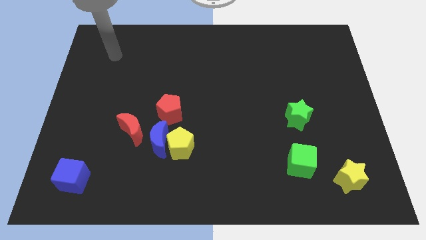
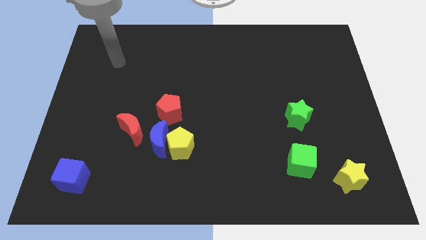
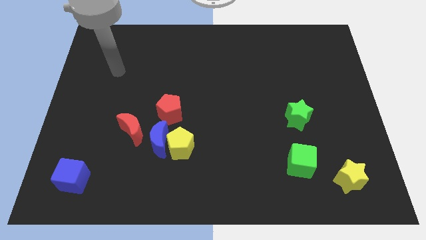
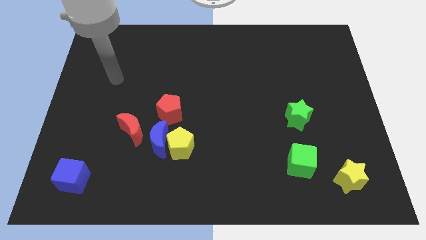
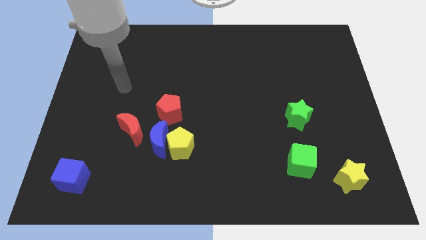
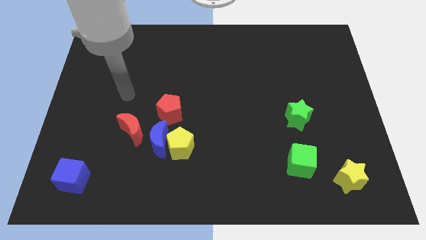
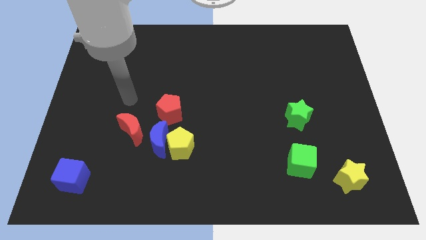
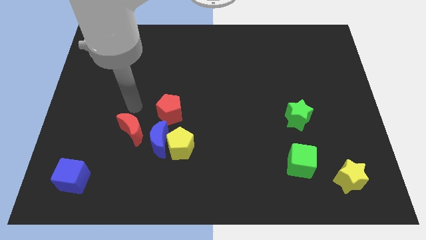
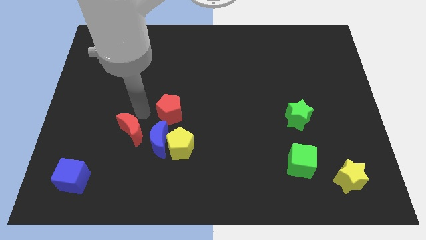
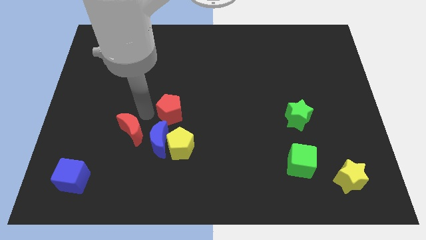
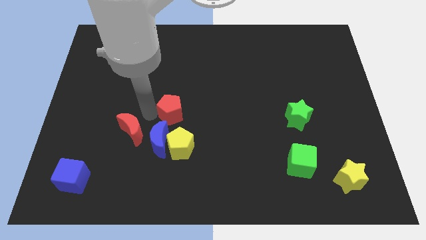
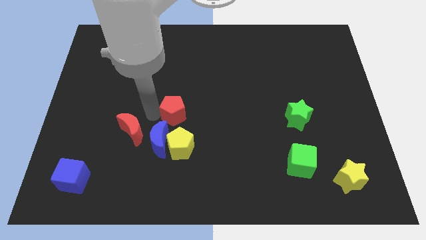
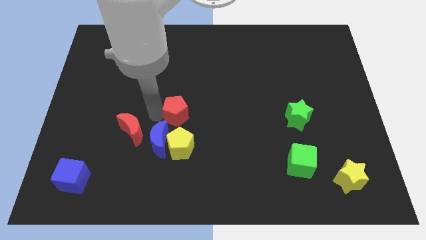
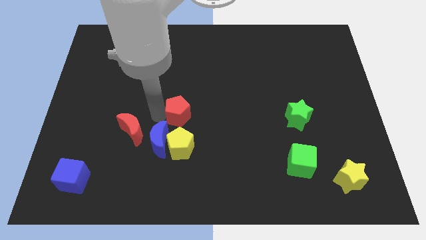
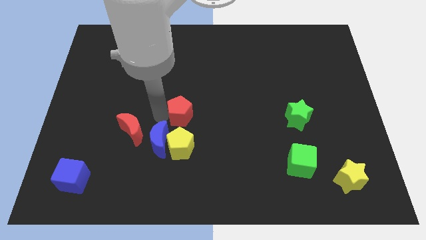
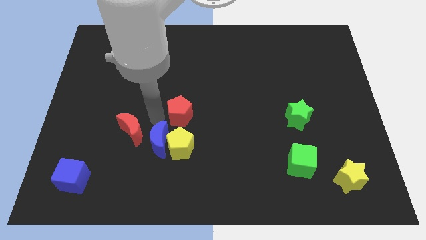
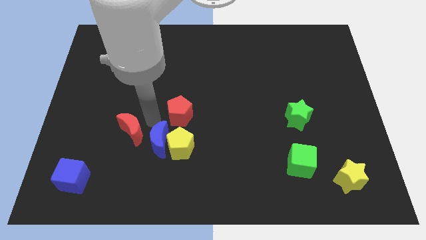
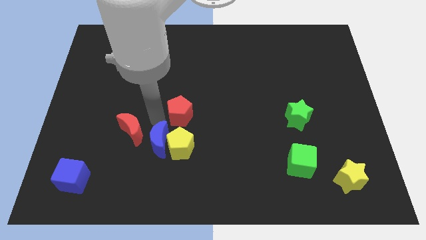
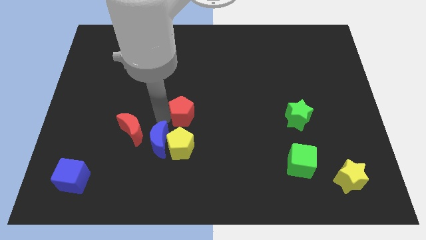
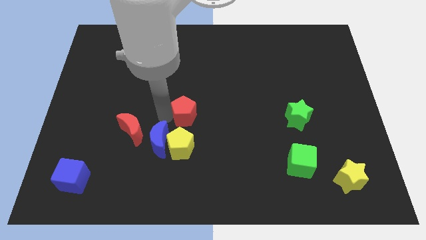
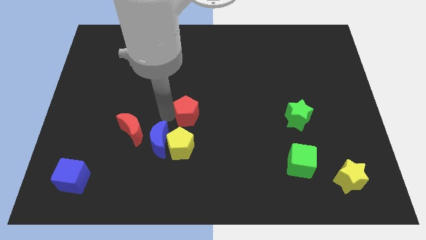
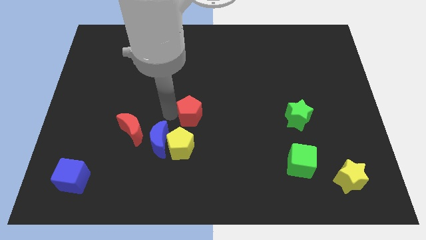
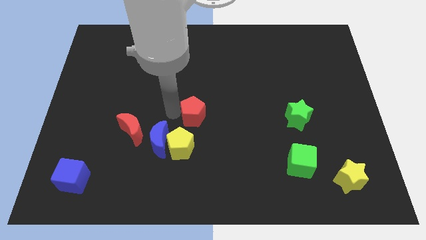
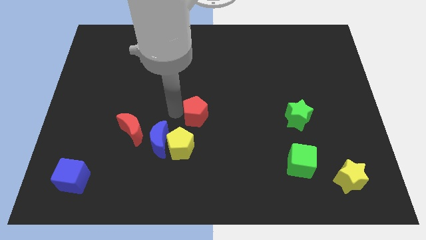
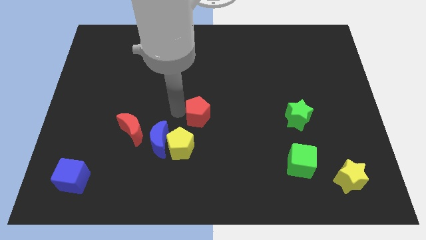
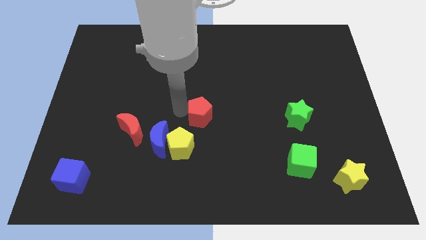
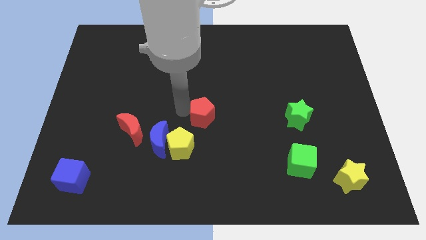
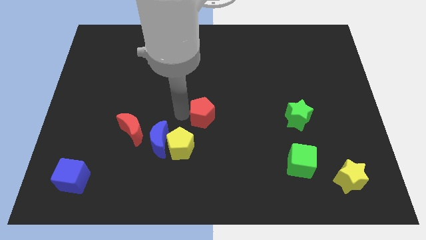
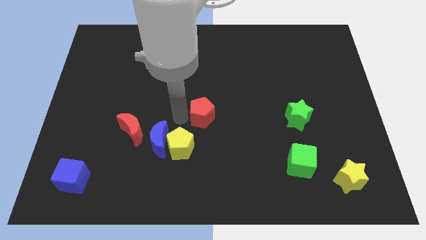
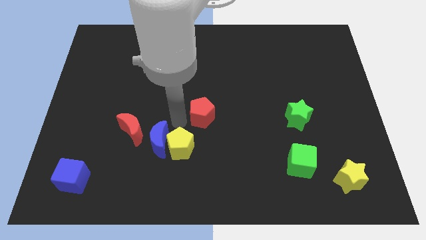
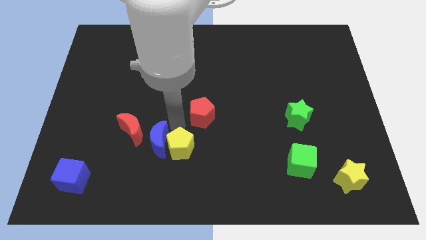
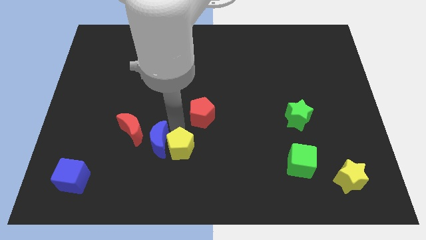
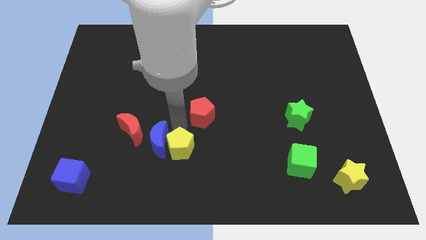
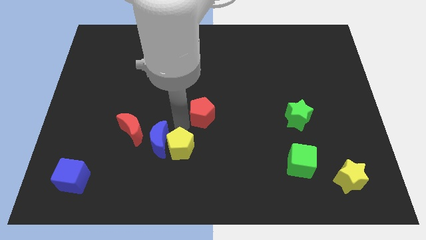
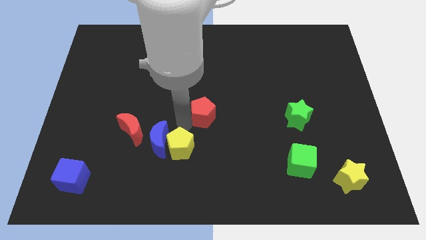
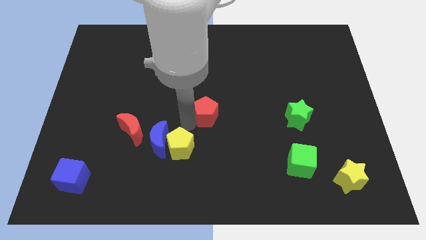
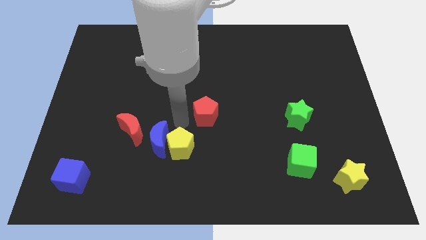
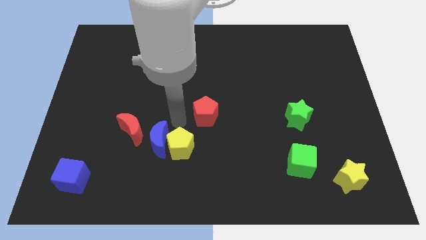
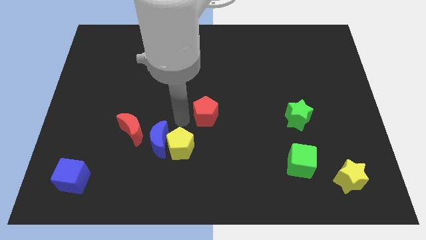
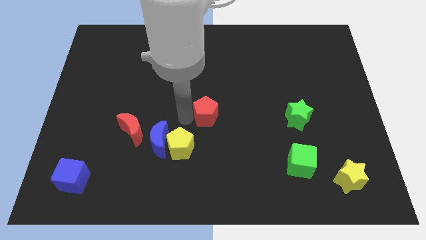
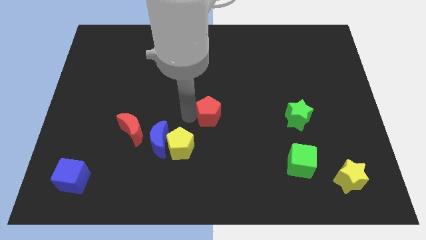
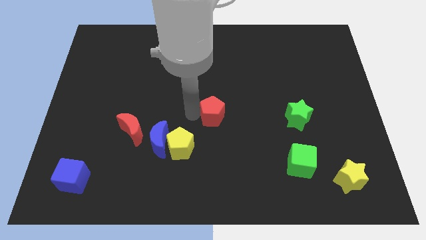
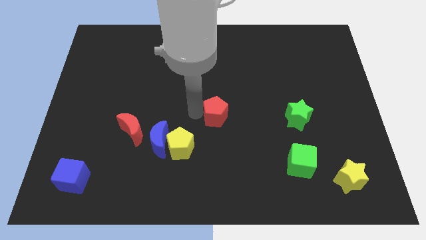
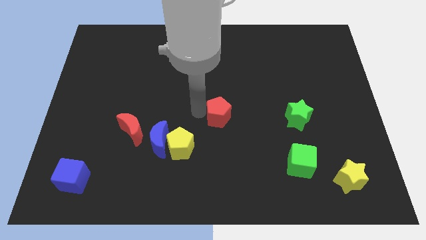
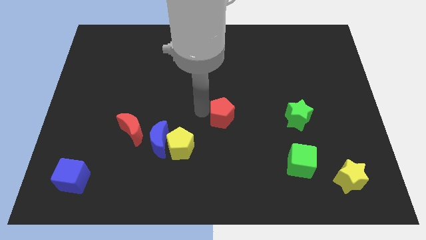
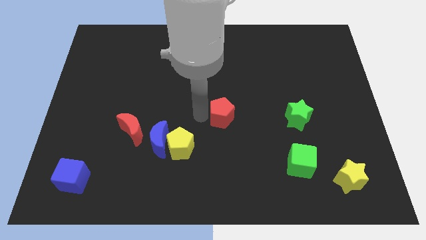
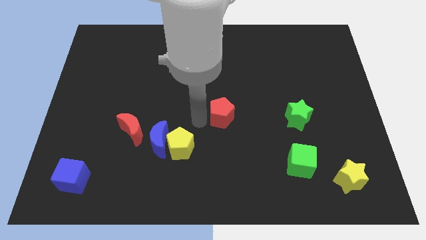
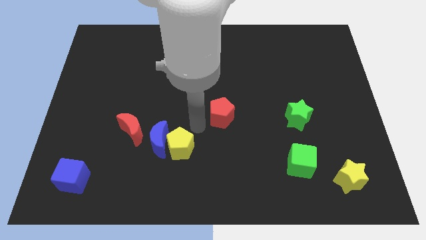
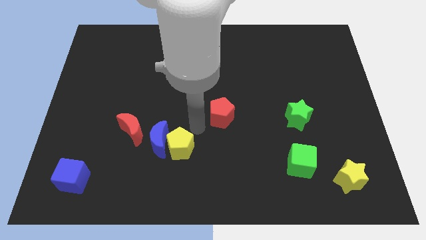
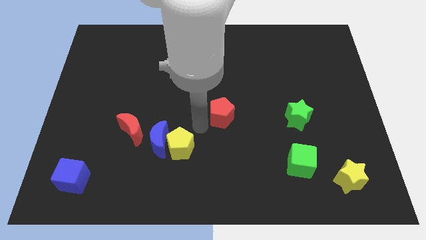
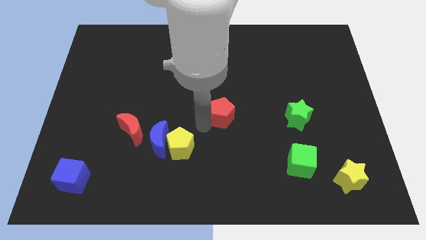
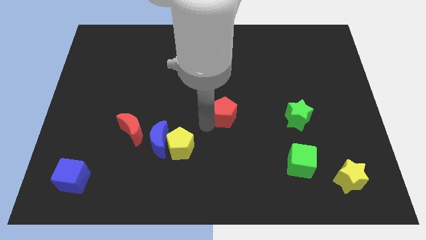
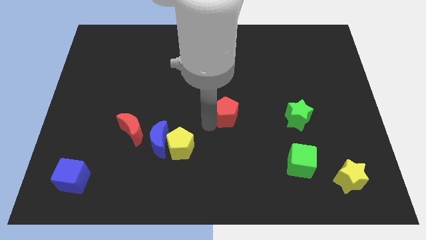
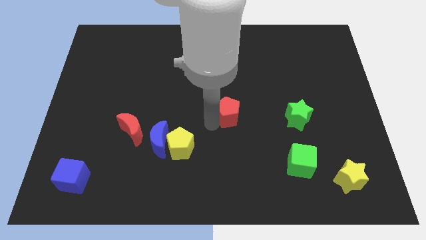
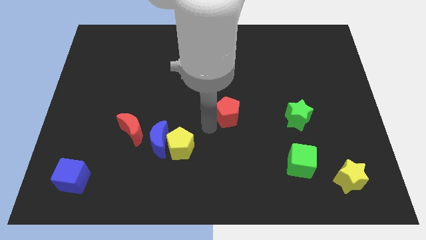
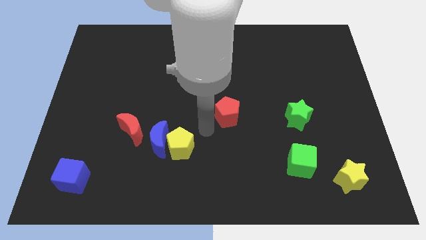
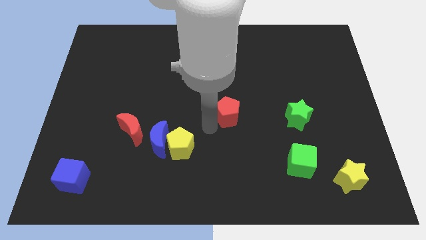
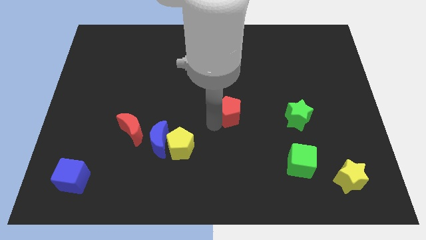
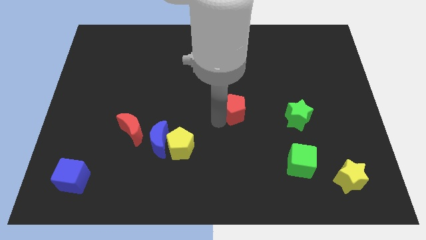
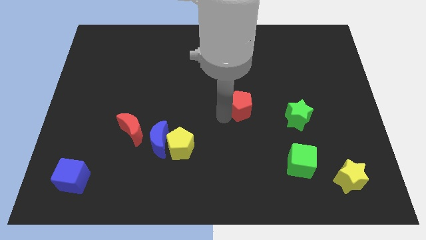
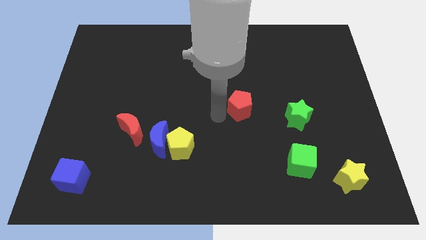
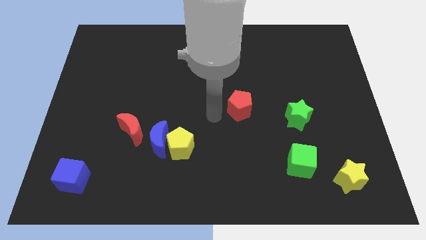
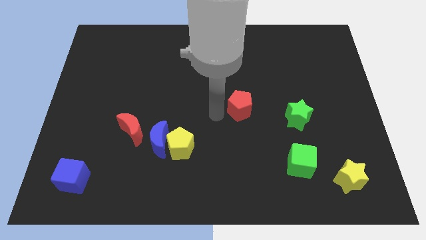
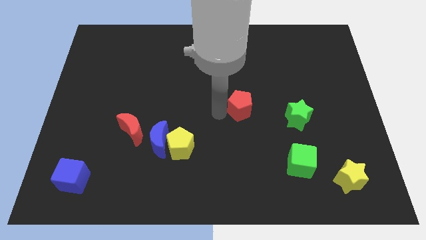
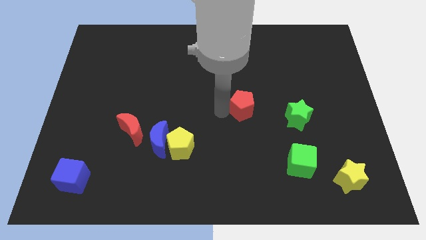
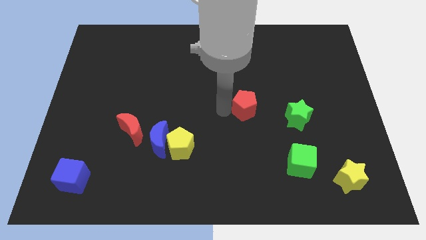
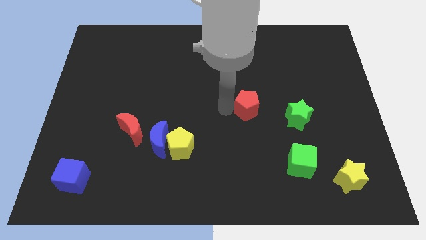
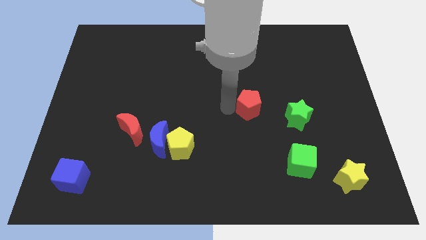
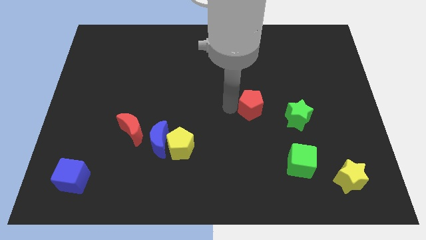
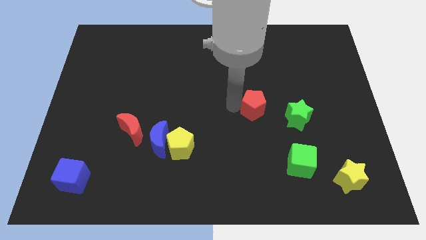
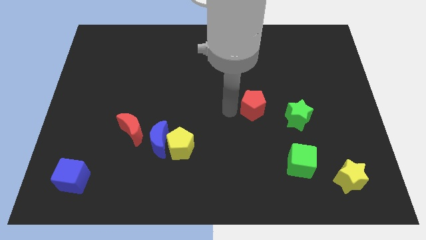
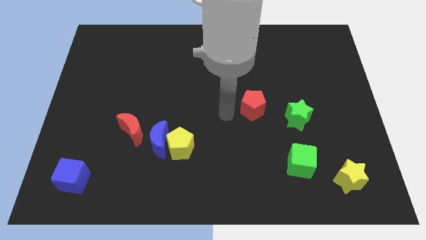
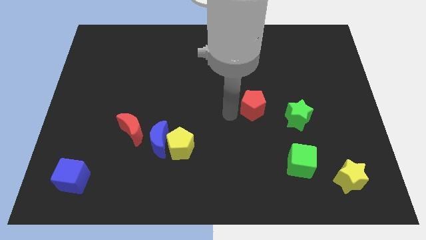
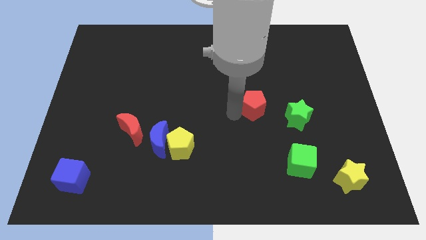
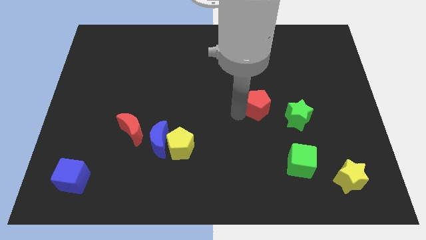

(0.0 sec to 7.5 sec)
move the red pentagon right

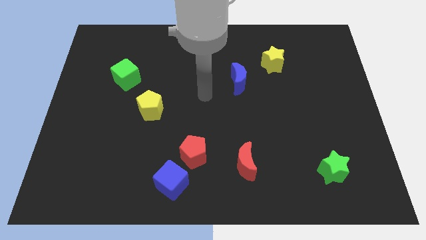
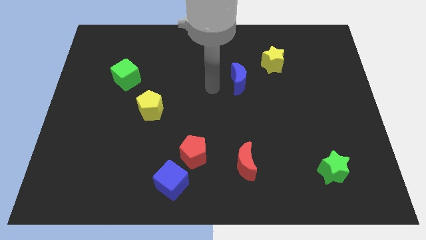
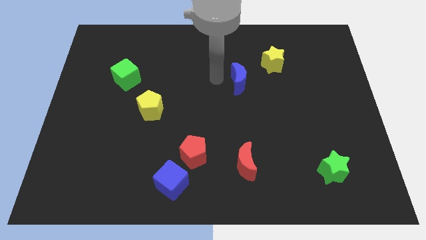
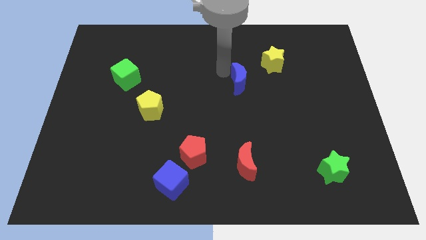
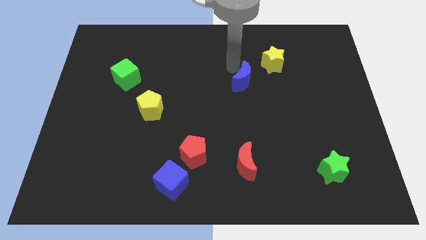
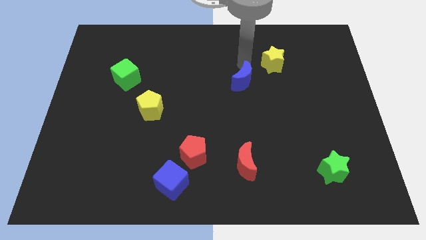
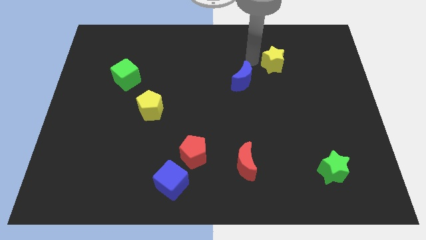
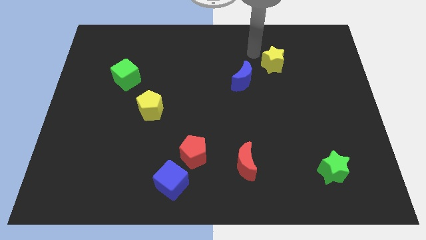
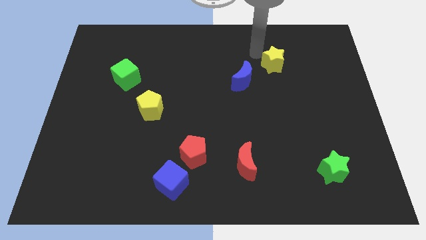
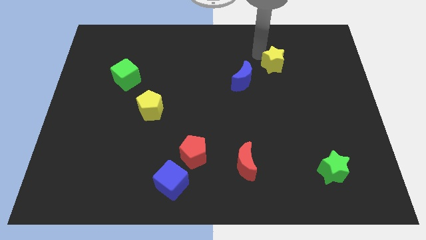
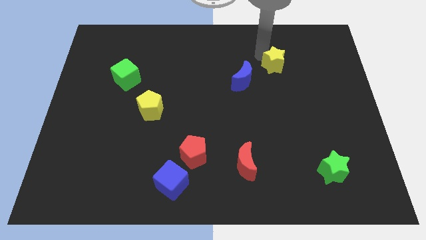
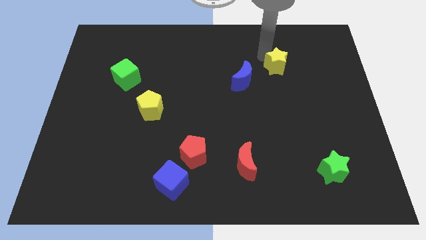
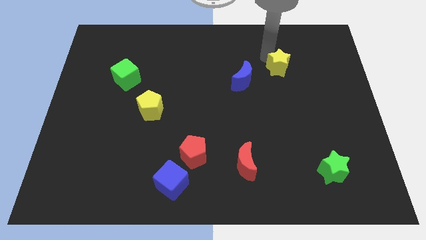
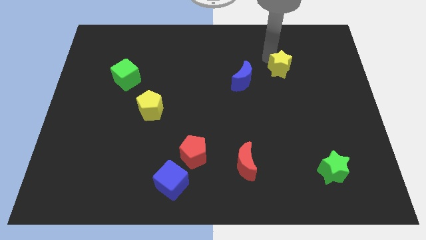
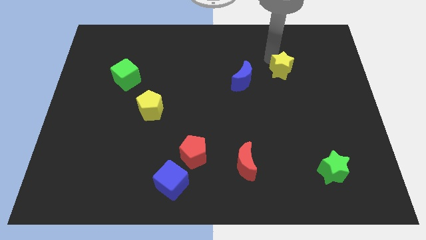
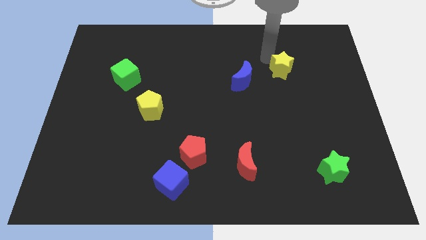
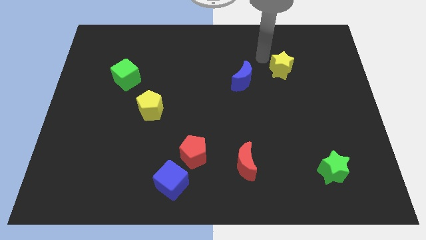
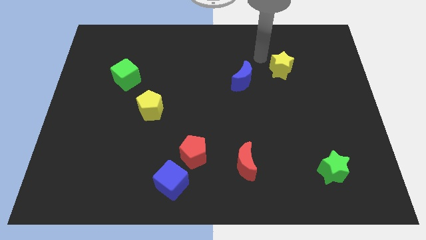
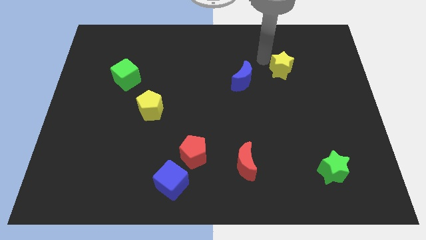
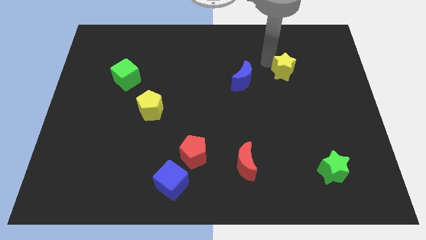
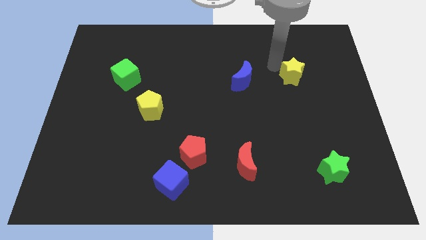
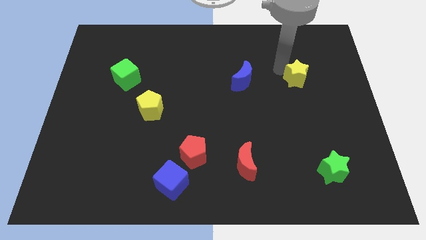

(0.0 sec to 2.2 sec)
slide the yellow star downwards and then to the right somewhat
